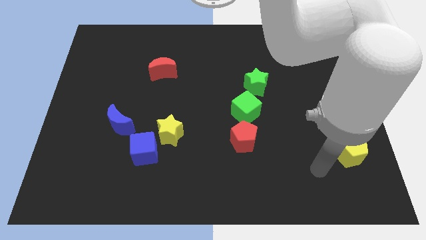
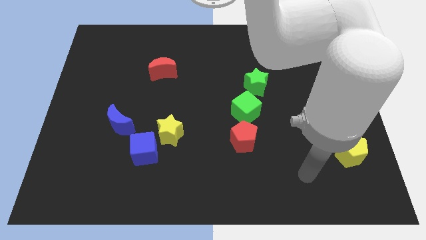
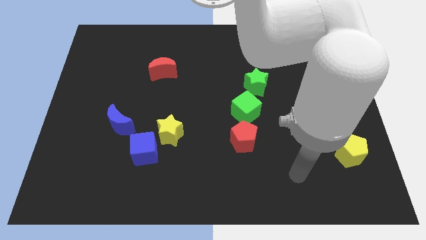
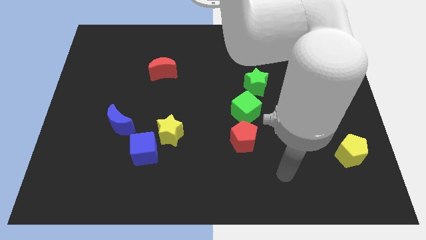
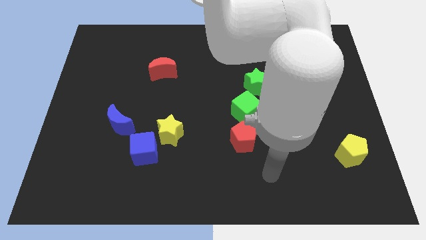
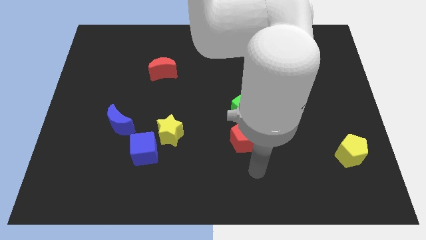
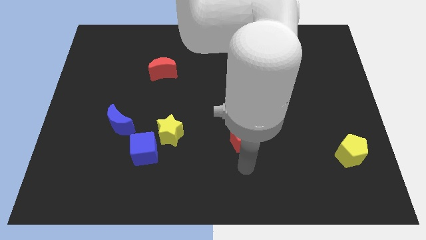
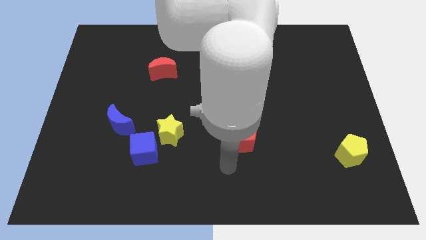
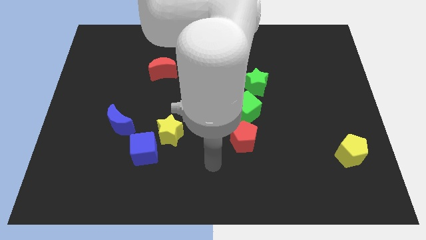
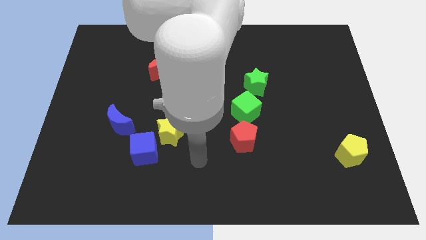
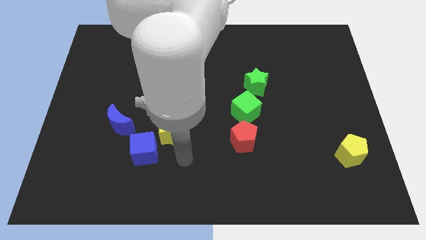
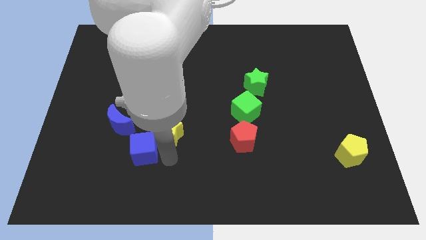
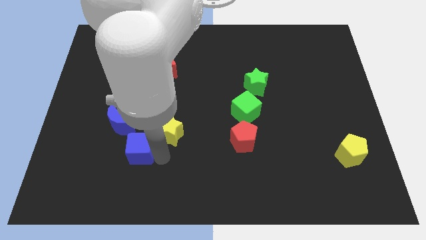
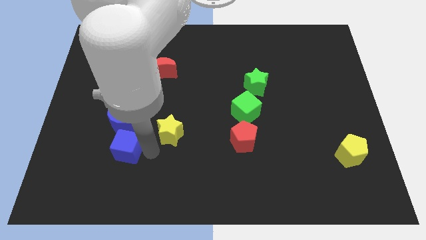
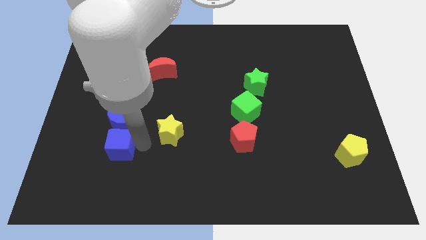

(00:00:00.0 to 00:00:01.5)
pull the yellow star apart from the blue cube

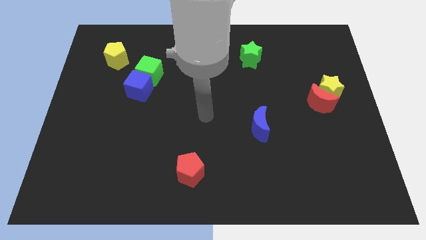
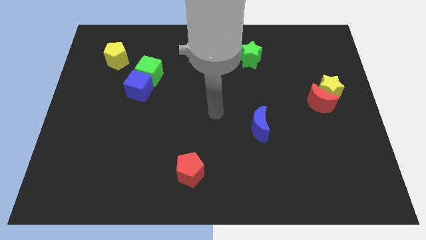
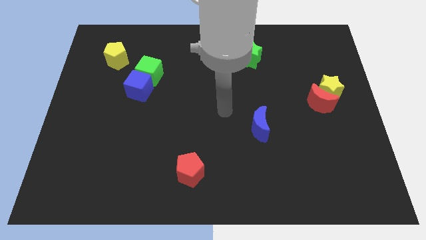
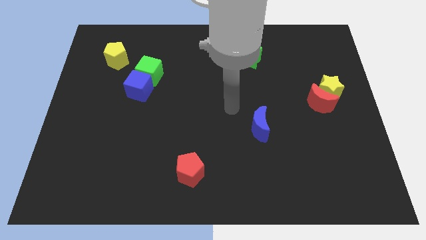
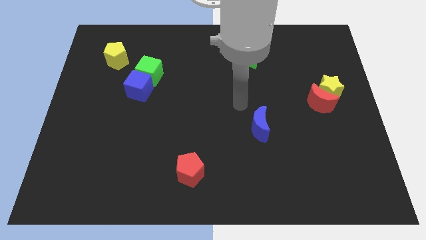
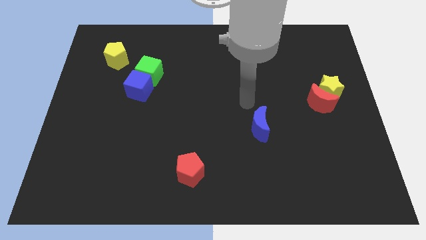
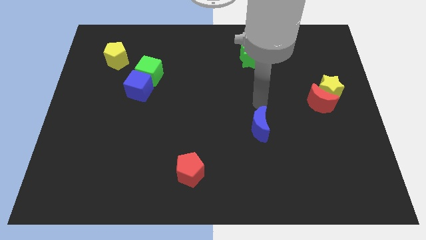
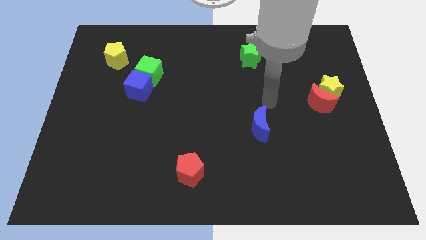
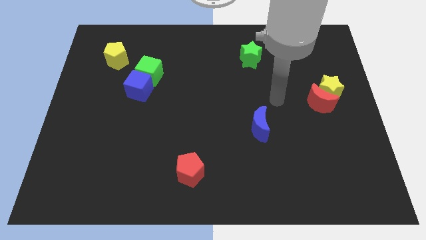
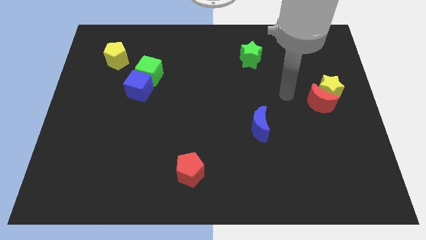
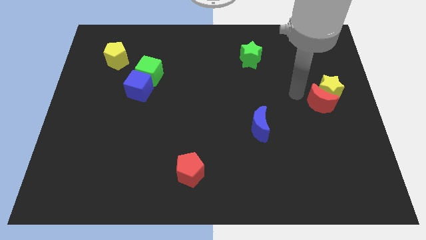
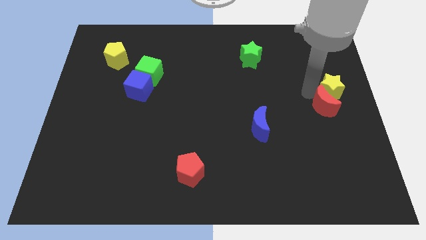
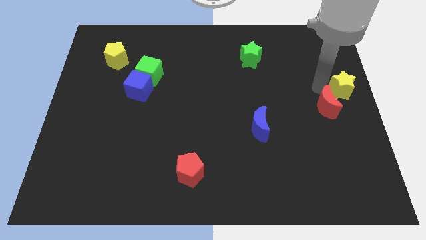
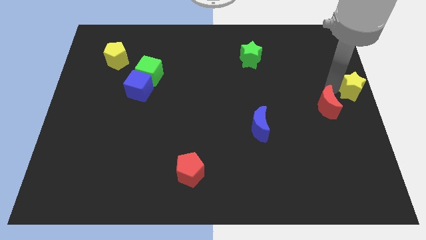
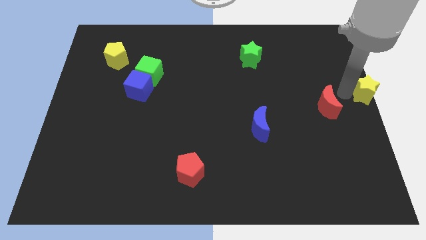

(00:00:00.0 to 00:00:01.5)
pull the red moon apart from the yellow star

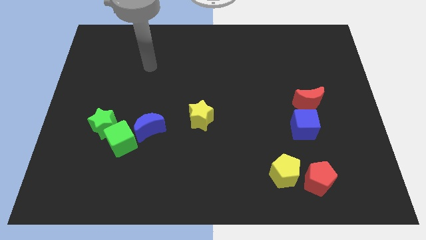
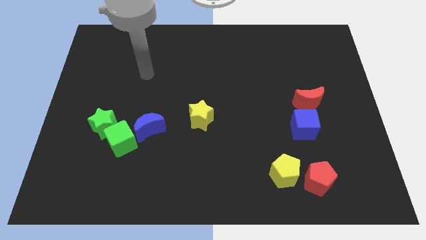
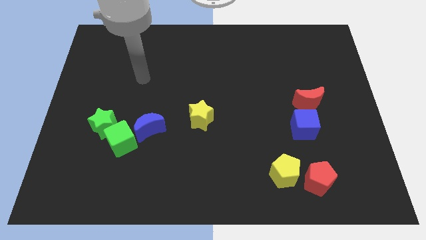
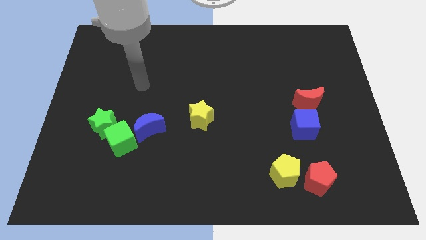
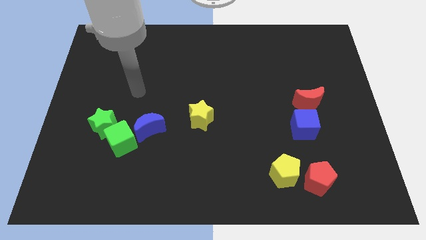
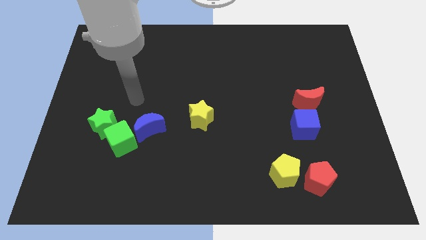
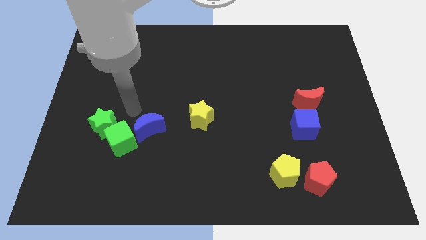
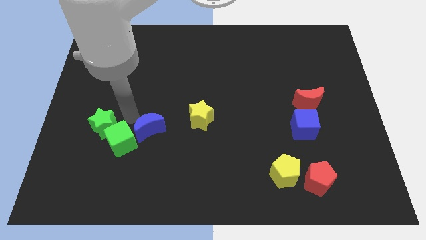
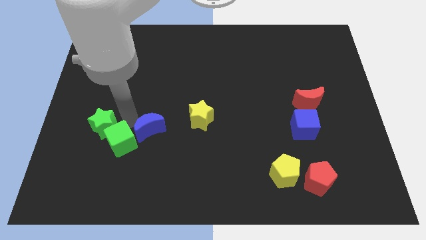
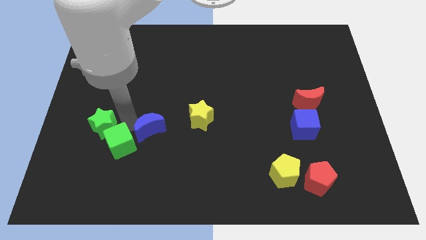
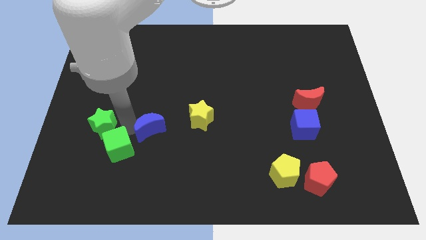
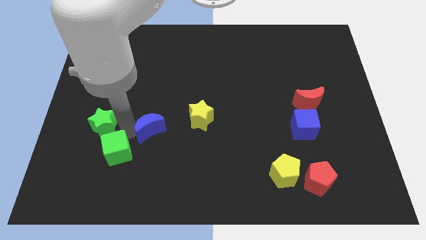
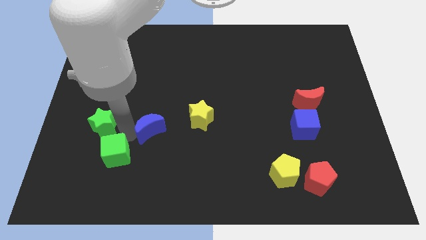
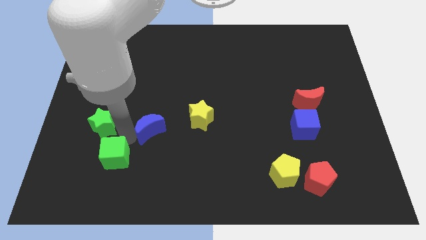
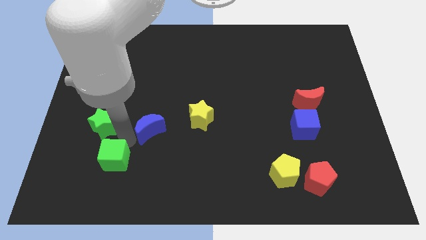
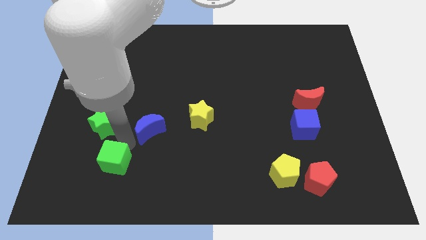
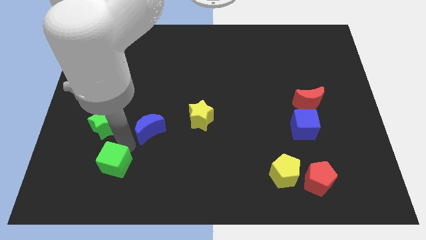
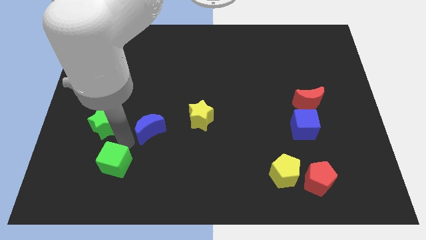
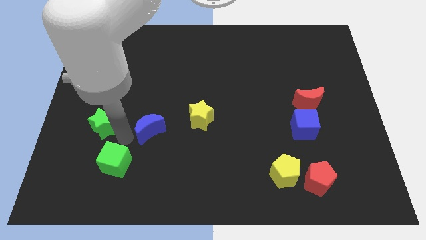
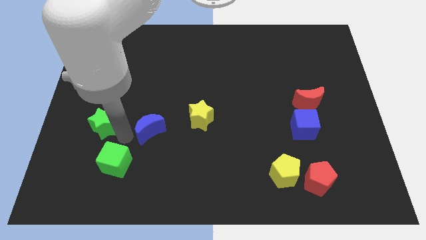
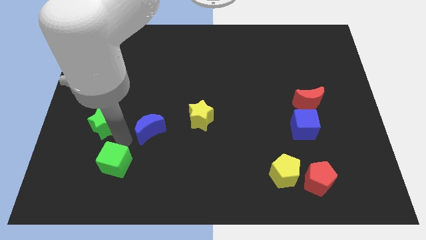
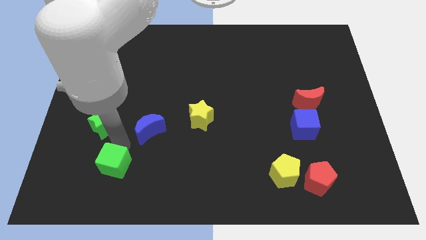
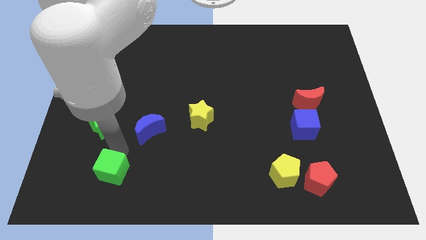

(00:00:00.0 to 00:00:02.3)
separate the green cube from the green star and blue moon

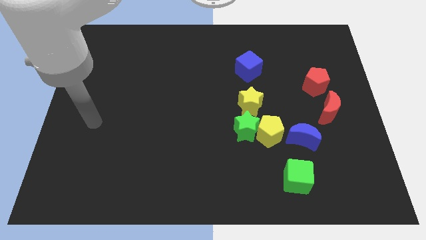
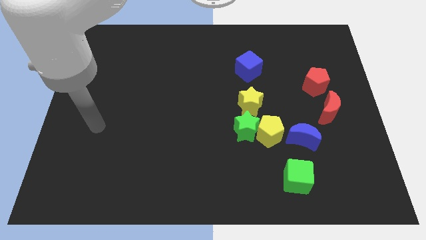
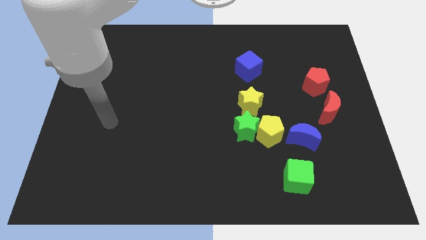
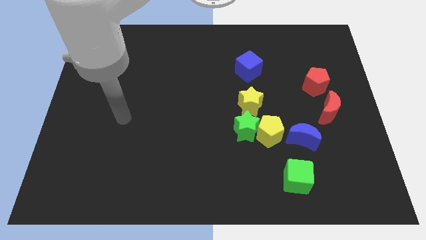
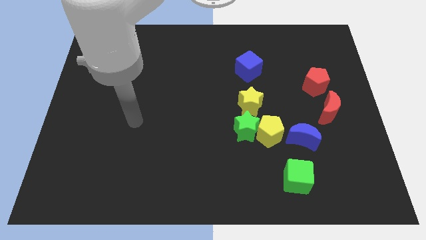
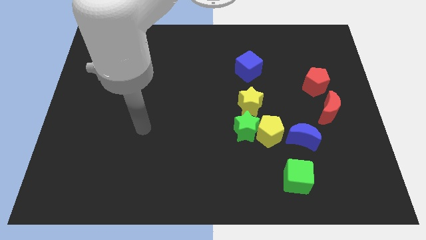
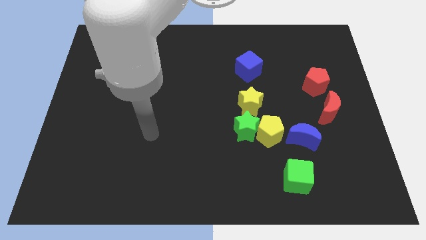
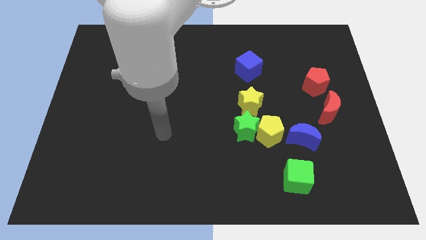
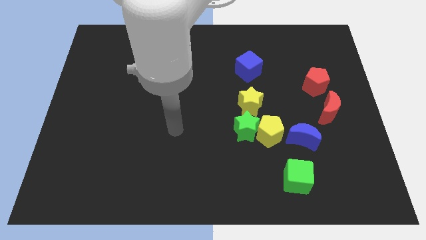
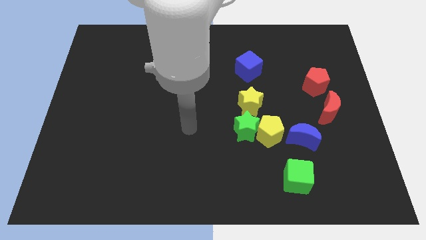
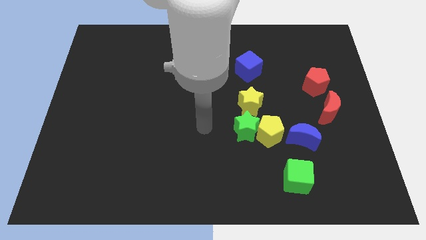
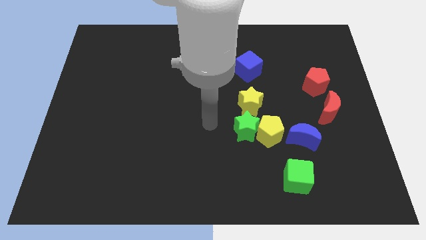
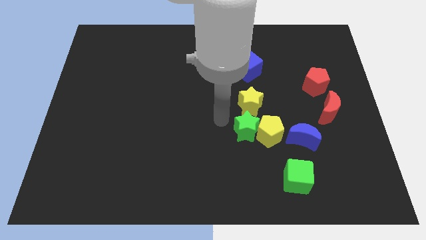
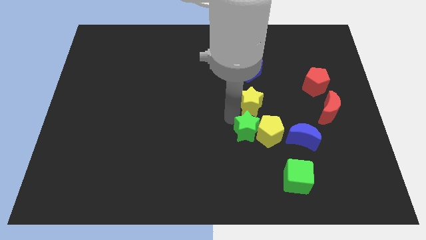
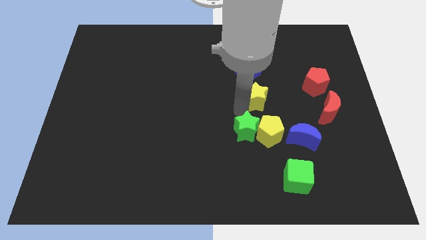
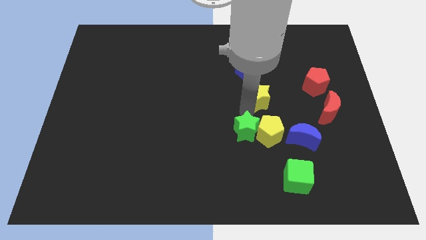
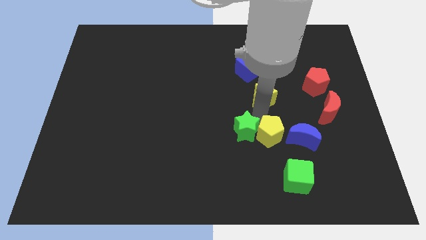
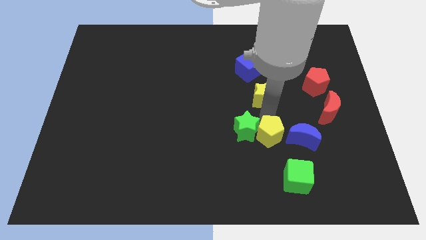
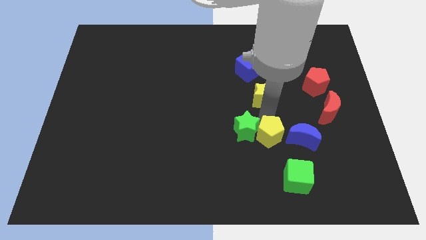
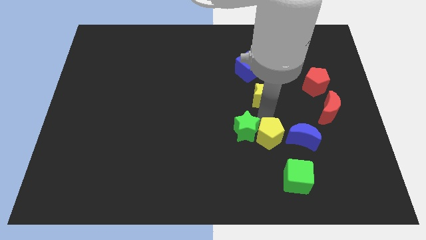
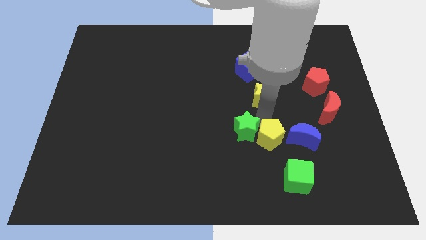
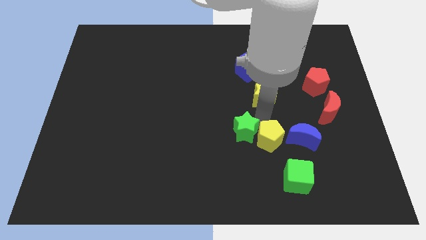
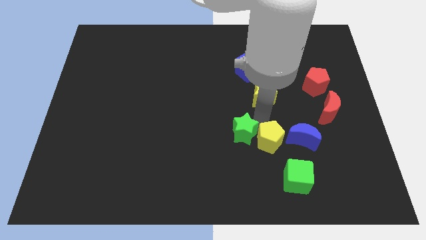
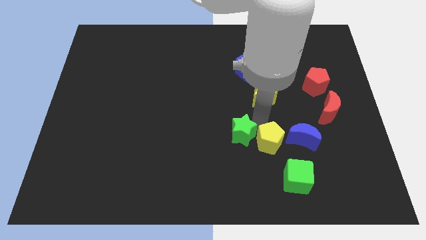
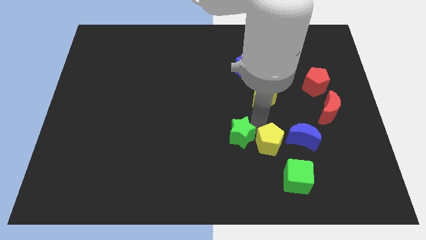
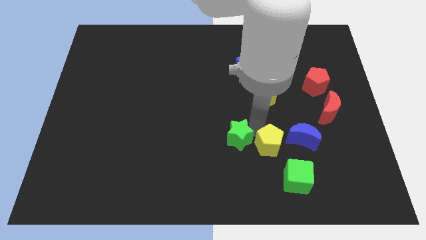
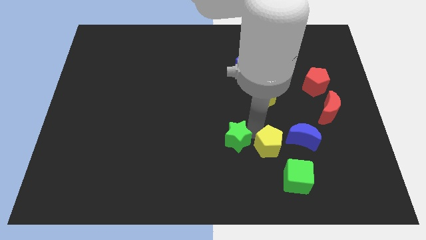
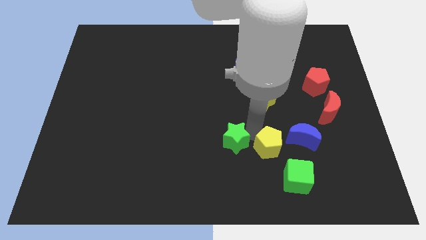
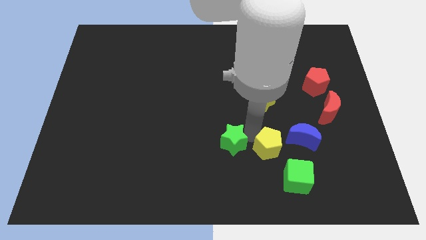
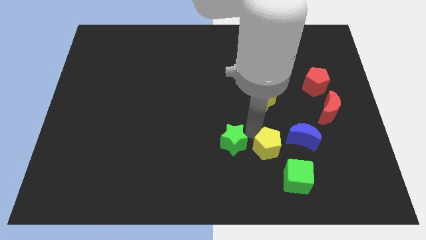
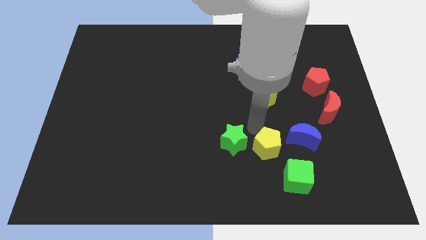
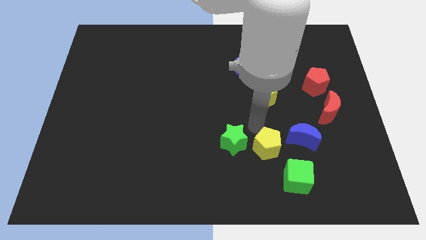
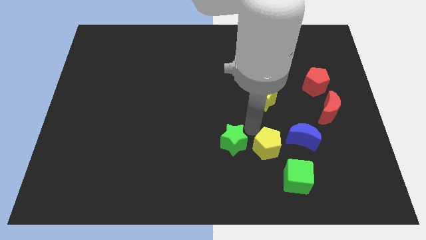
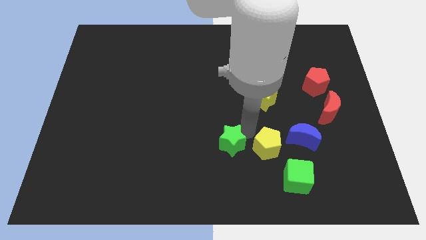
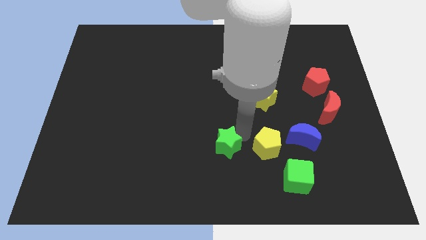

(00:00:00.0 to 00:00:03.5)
pull the green star apart from the yellow pentagon and yellow star

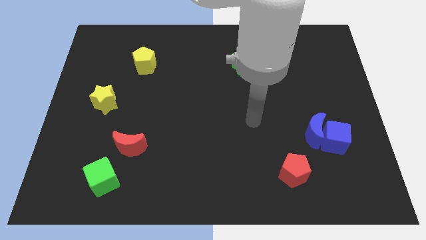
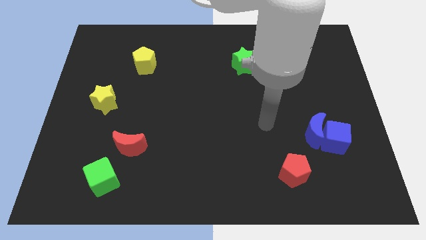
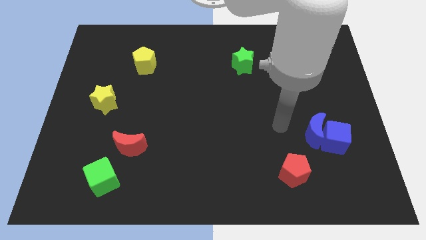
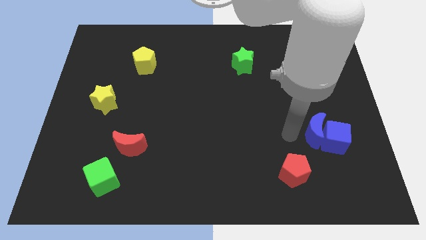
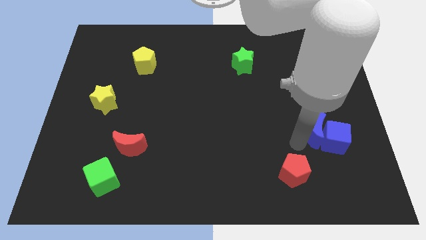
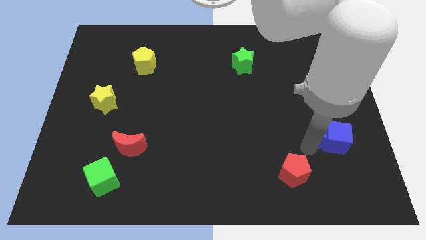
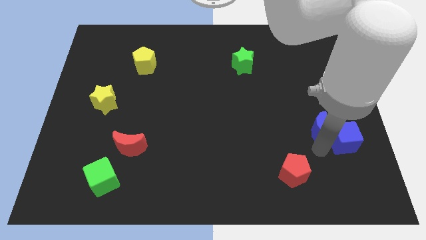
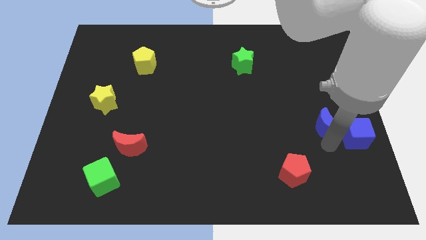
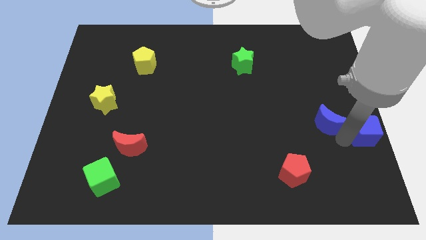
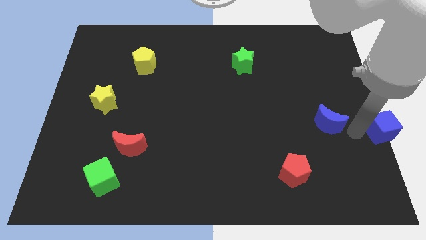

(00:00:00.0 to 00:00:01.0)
pull the blue moon apart from the blue cube
